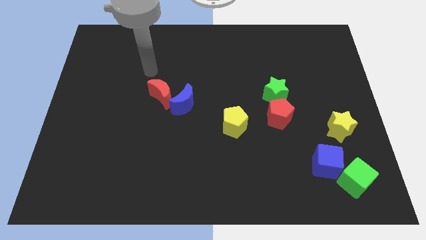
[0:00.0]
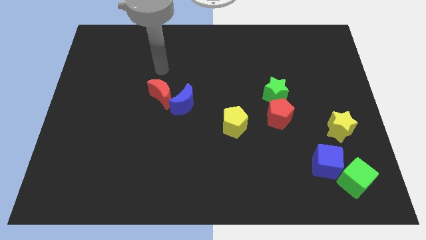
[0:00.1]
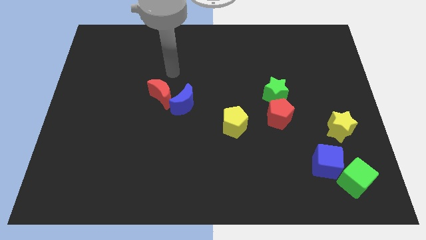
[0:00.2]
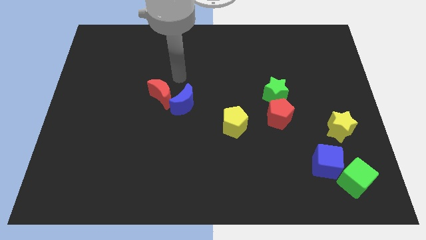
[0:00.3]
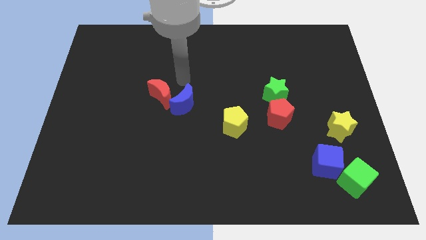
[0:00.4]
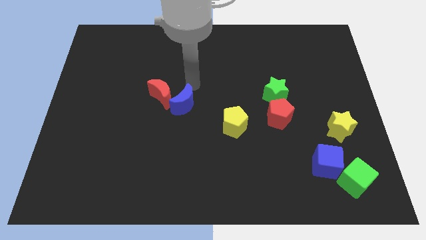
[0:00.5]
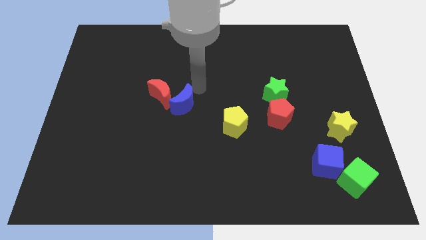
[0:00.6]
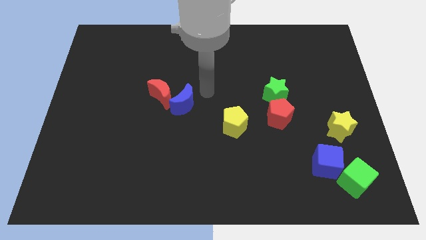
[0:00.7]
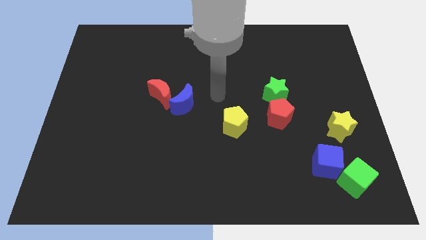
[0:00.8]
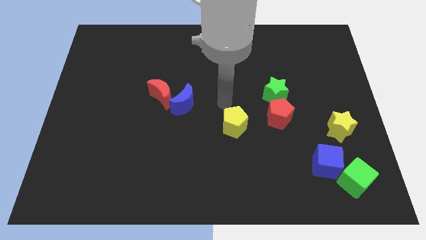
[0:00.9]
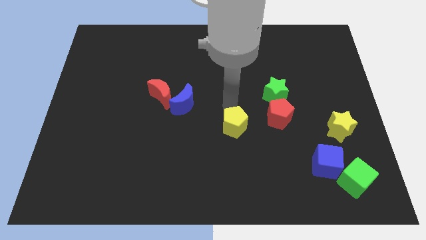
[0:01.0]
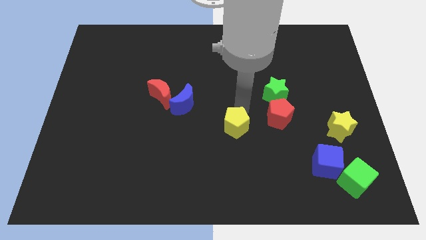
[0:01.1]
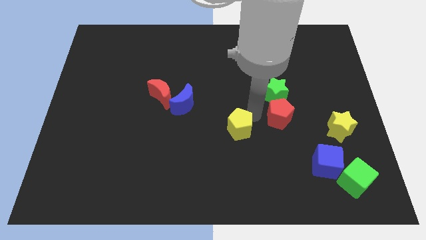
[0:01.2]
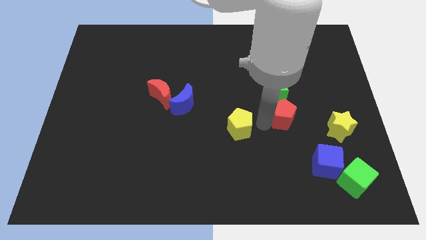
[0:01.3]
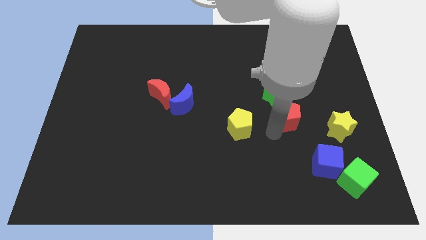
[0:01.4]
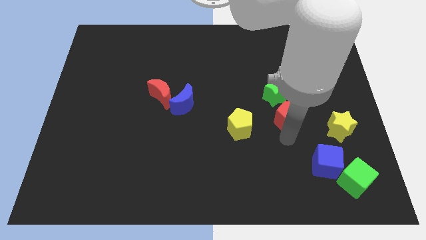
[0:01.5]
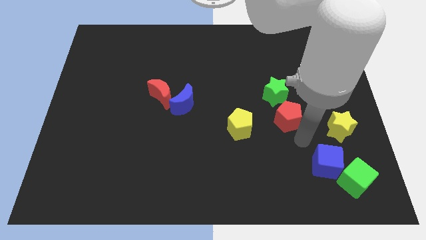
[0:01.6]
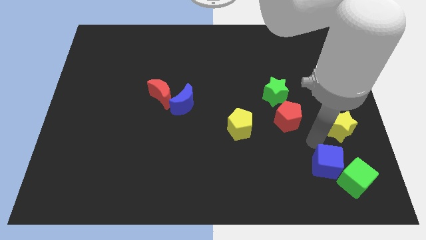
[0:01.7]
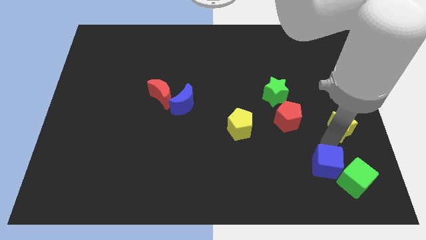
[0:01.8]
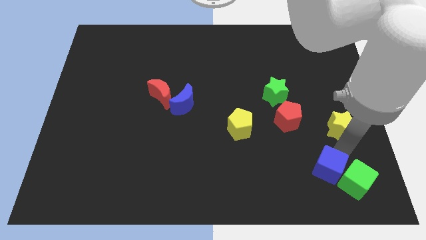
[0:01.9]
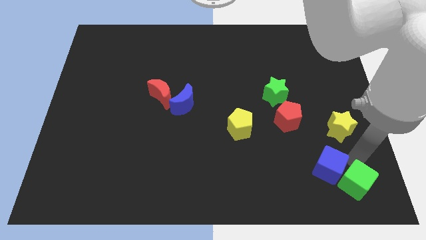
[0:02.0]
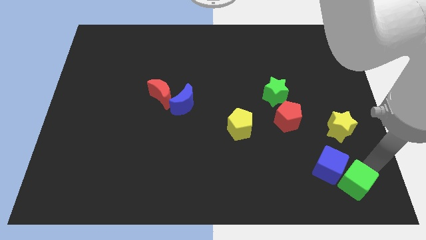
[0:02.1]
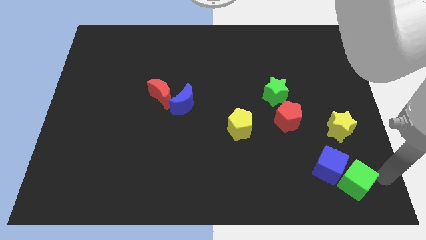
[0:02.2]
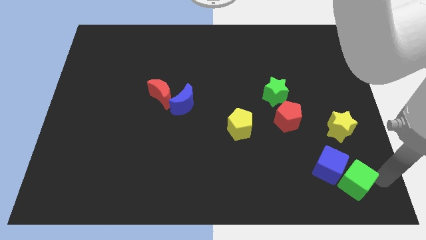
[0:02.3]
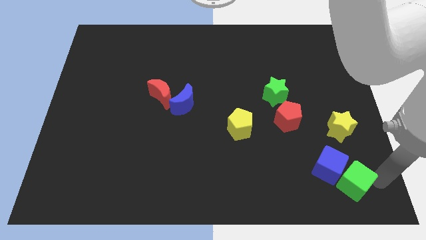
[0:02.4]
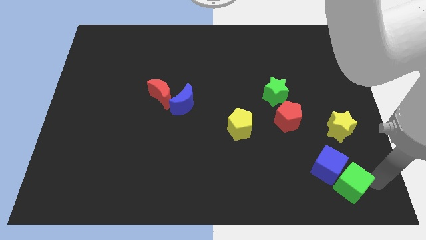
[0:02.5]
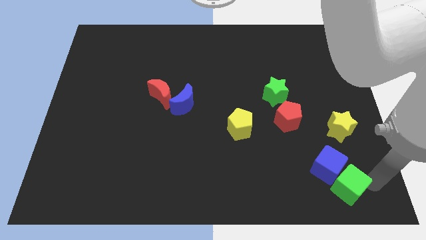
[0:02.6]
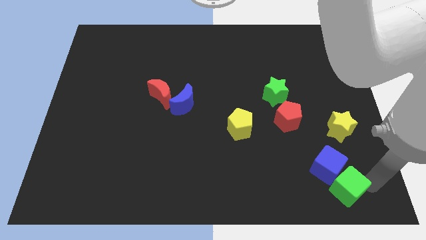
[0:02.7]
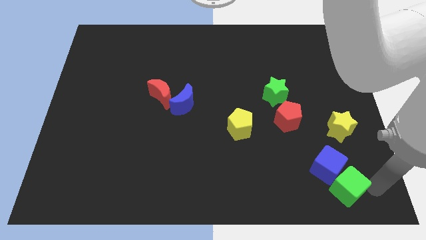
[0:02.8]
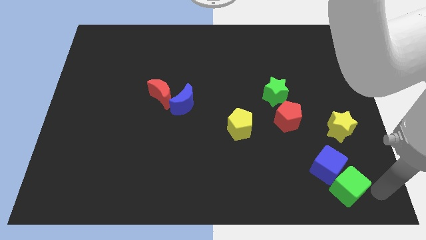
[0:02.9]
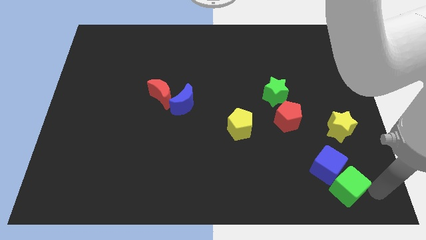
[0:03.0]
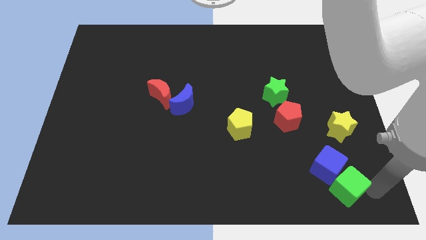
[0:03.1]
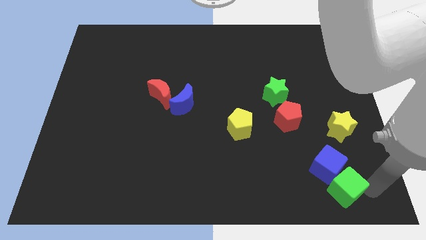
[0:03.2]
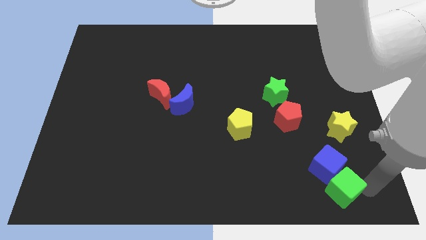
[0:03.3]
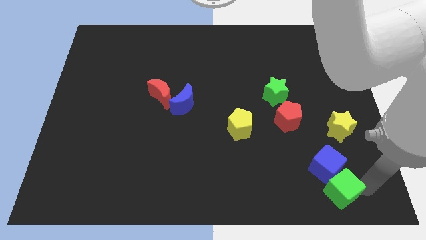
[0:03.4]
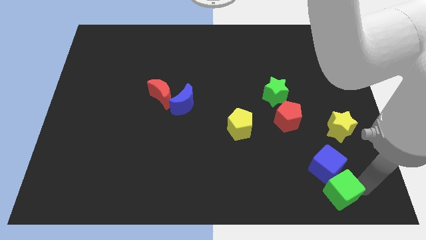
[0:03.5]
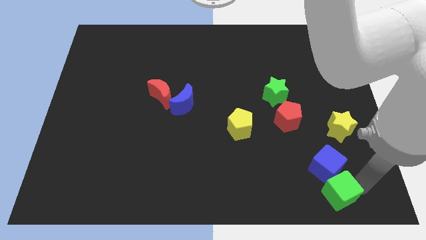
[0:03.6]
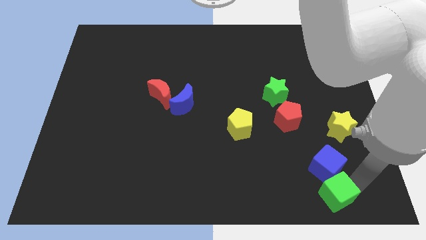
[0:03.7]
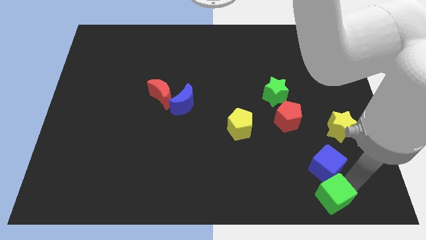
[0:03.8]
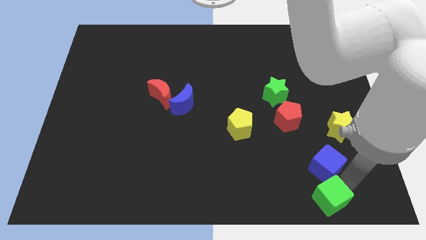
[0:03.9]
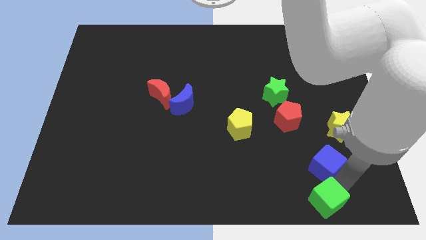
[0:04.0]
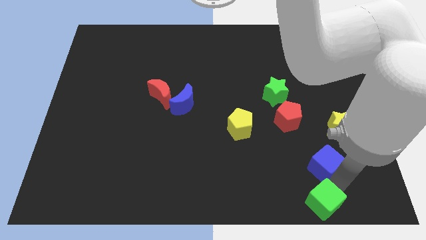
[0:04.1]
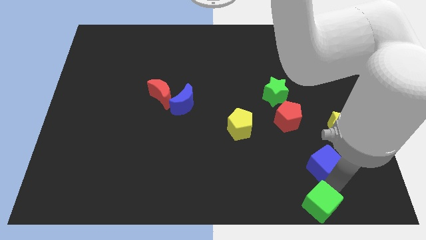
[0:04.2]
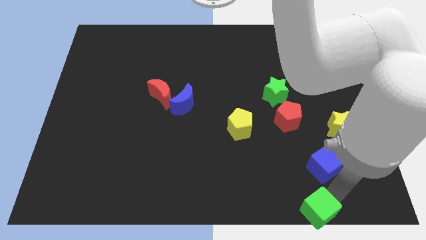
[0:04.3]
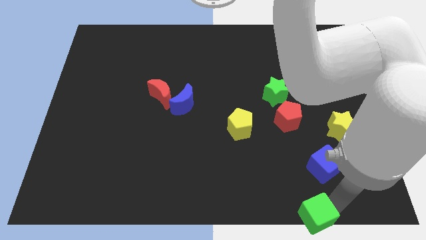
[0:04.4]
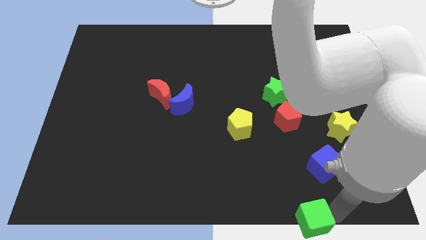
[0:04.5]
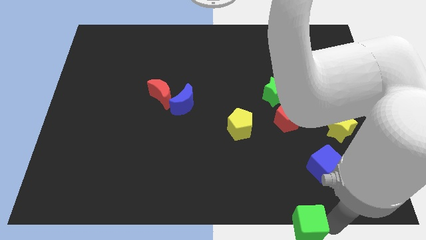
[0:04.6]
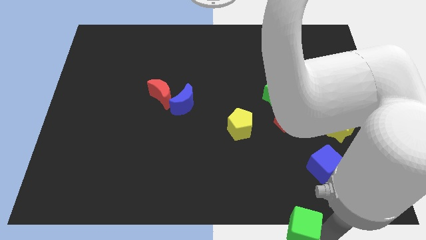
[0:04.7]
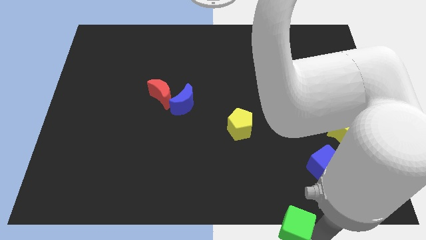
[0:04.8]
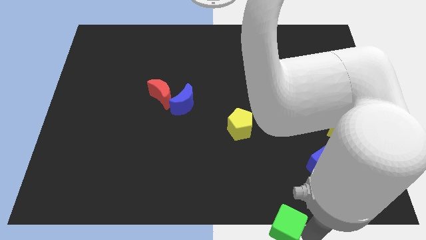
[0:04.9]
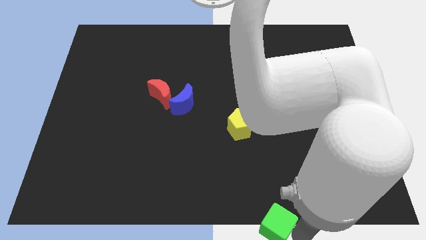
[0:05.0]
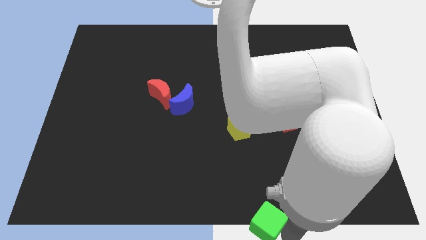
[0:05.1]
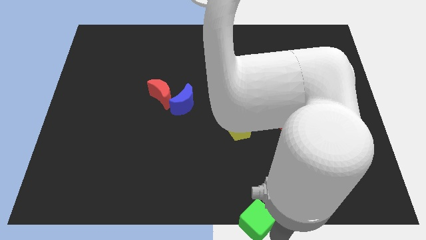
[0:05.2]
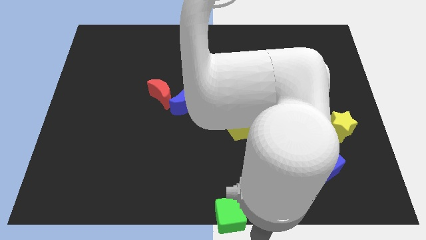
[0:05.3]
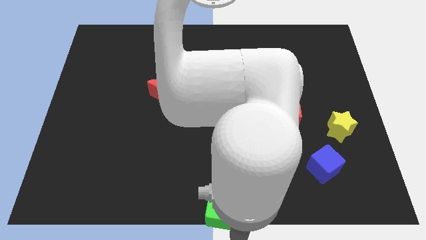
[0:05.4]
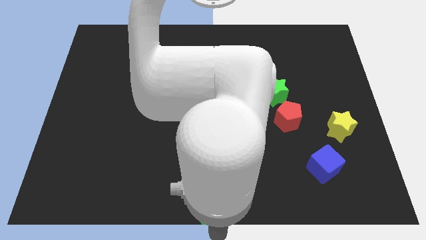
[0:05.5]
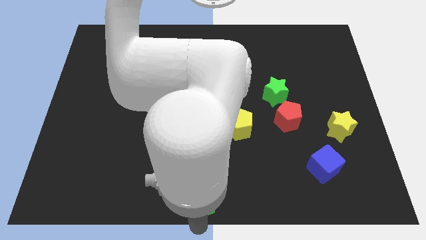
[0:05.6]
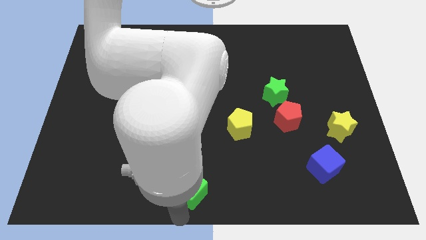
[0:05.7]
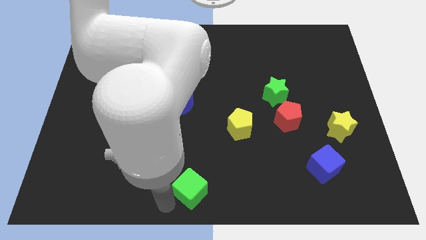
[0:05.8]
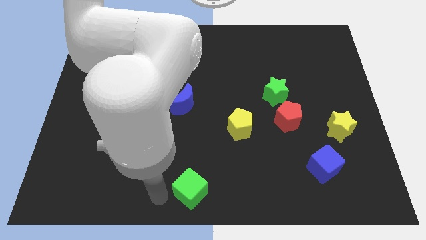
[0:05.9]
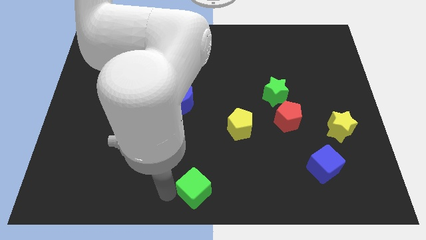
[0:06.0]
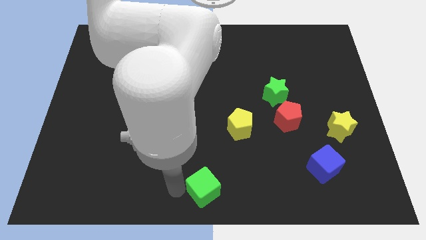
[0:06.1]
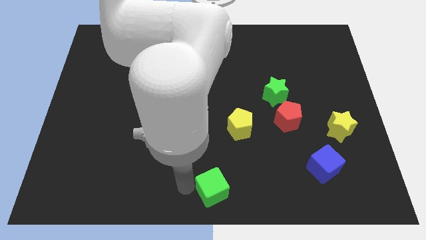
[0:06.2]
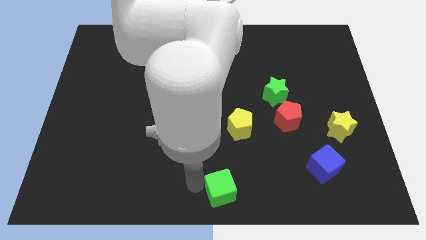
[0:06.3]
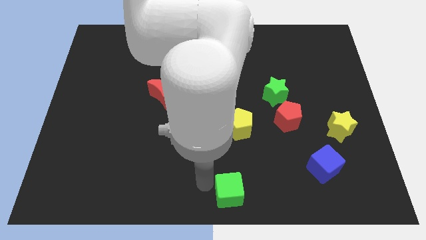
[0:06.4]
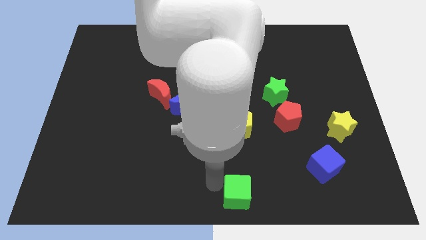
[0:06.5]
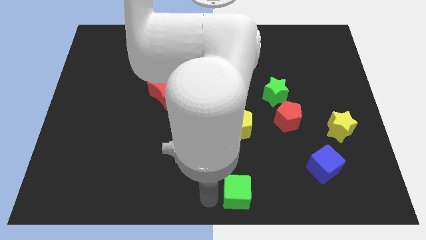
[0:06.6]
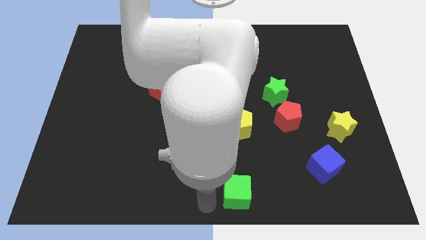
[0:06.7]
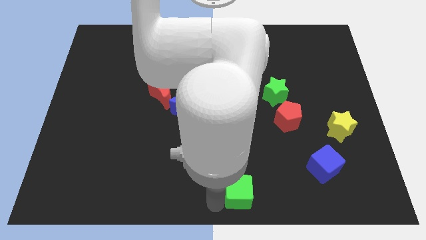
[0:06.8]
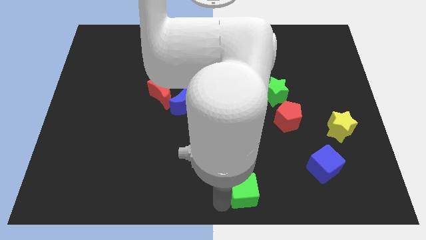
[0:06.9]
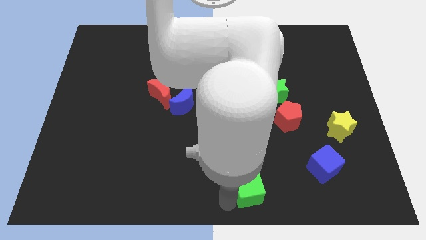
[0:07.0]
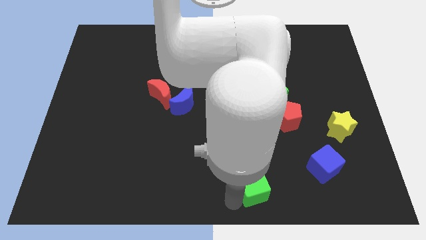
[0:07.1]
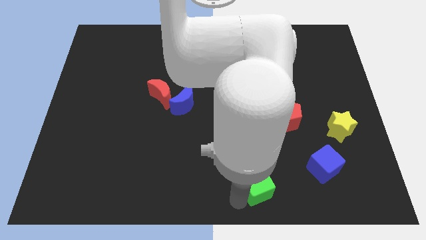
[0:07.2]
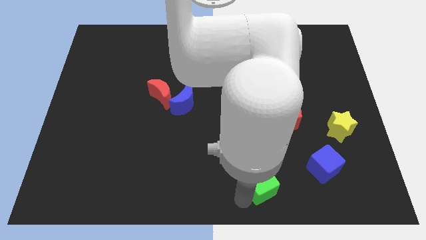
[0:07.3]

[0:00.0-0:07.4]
put the green cube to the left side of the blue cube
